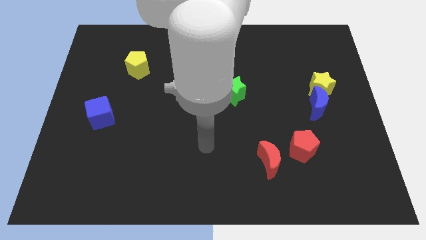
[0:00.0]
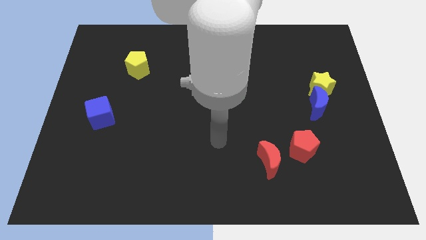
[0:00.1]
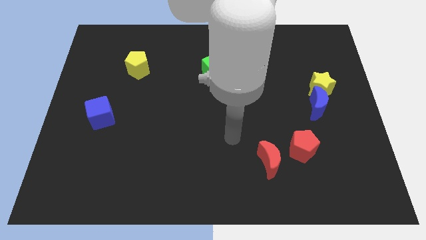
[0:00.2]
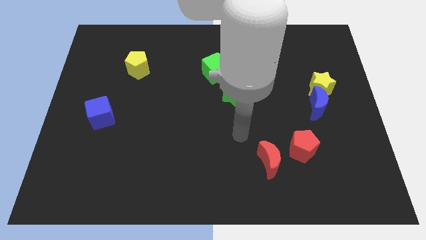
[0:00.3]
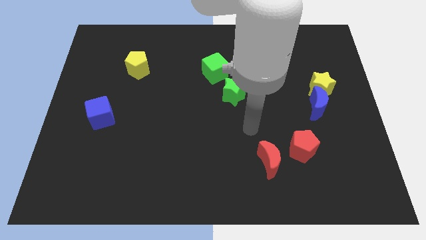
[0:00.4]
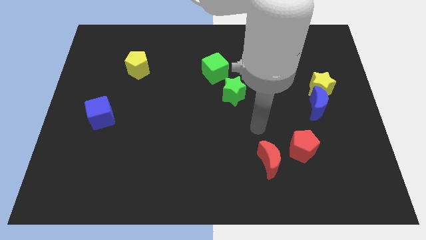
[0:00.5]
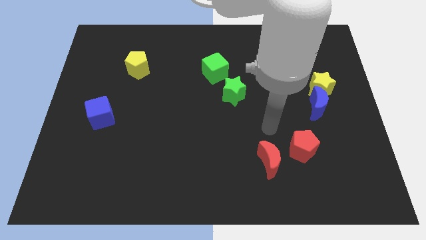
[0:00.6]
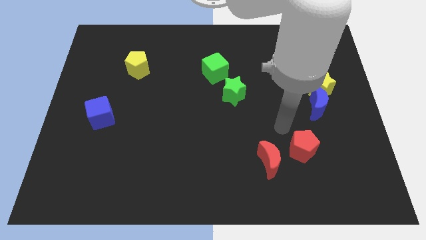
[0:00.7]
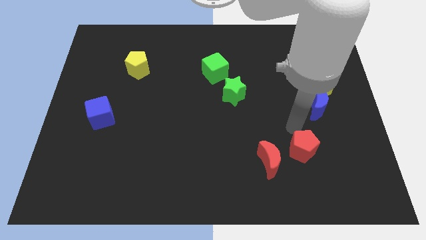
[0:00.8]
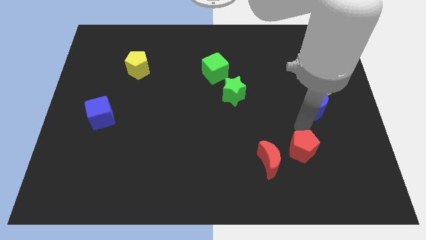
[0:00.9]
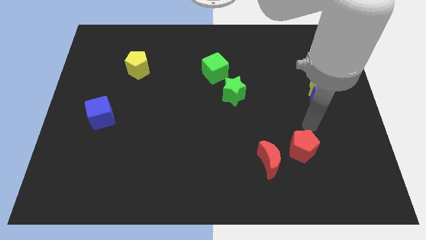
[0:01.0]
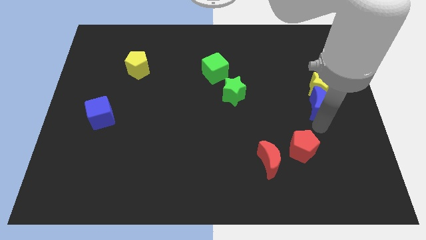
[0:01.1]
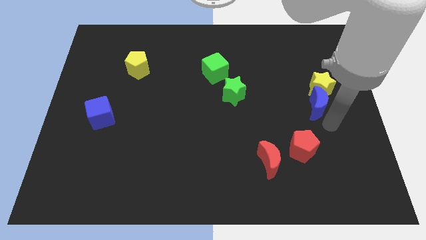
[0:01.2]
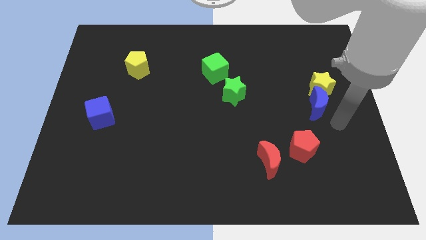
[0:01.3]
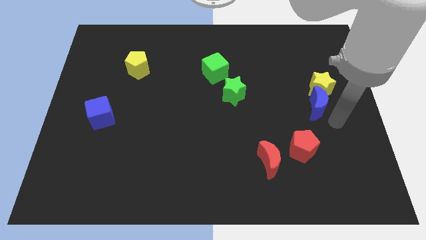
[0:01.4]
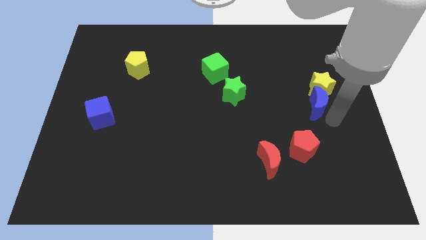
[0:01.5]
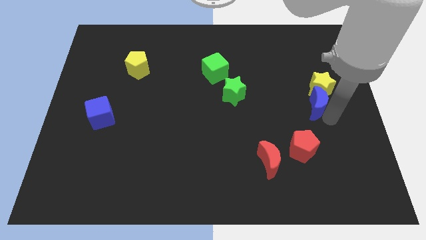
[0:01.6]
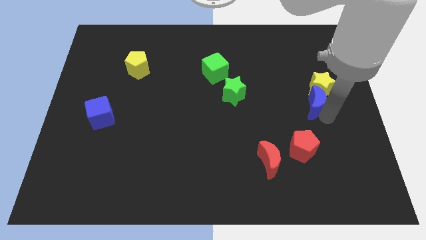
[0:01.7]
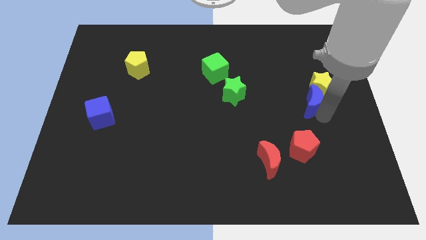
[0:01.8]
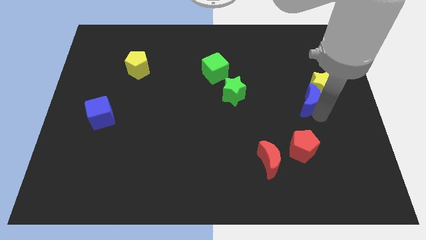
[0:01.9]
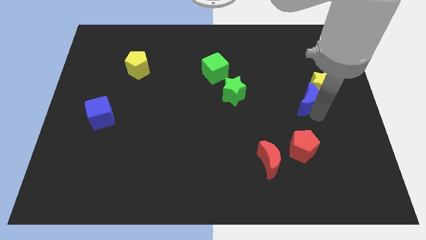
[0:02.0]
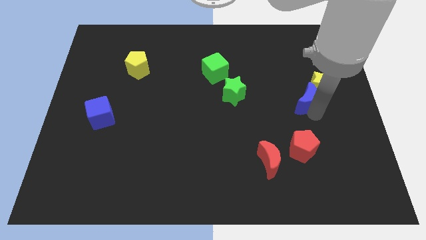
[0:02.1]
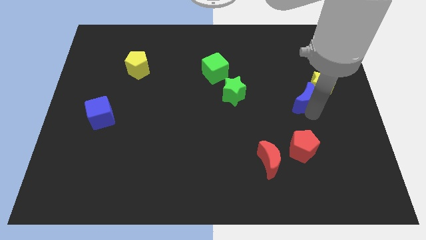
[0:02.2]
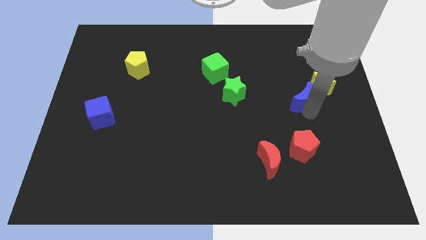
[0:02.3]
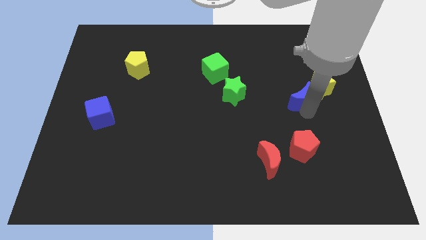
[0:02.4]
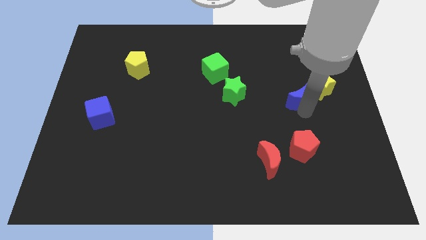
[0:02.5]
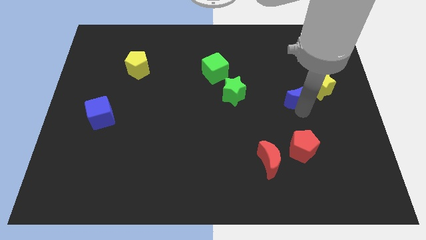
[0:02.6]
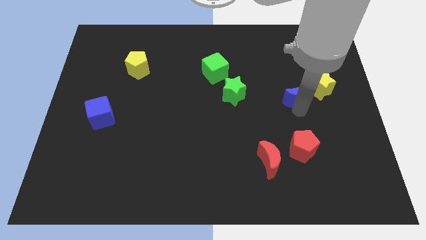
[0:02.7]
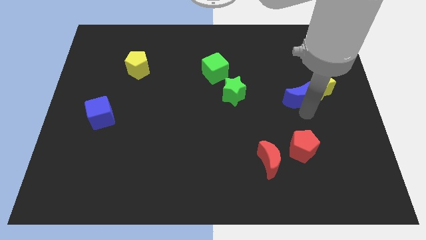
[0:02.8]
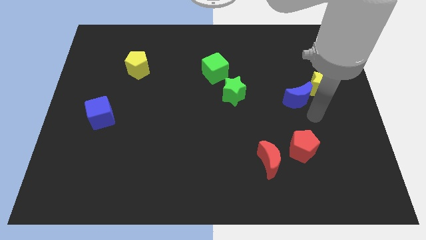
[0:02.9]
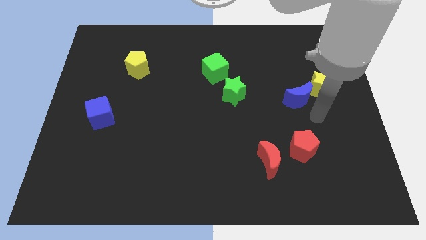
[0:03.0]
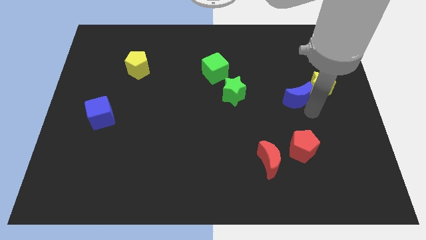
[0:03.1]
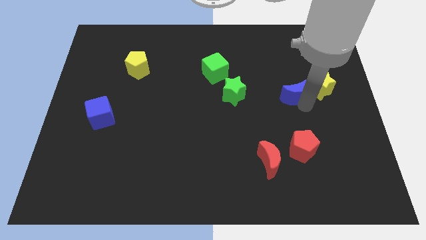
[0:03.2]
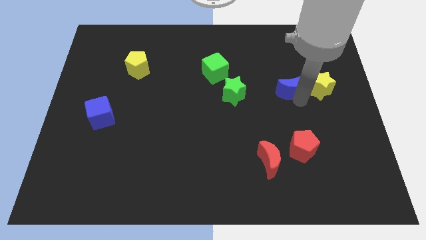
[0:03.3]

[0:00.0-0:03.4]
push the blue moon up and to the left a little bit

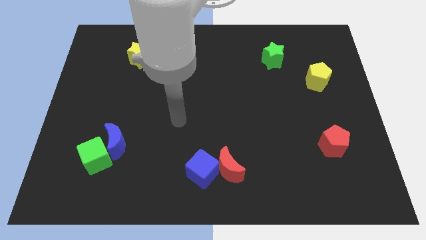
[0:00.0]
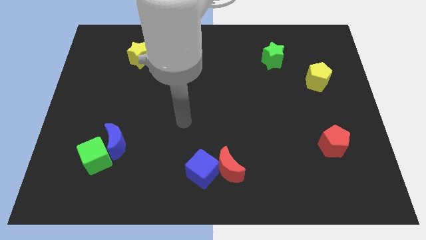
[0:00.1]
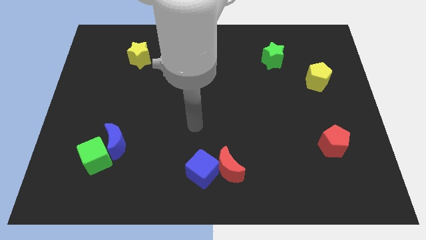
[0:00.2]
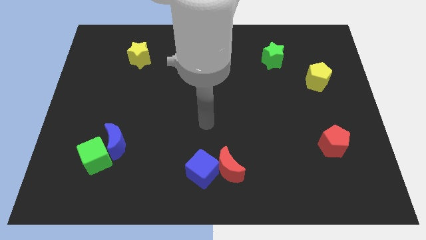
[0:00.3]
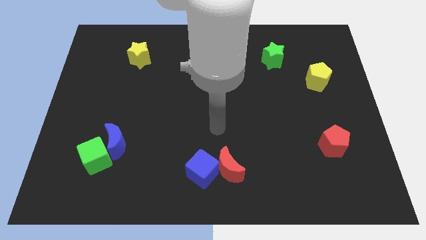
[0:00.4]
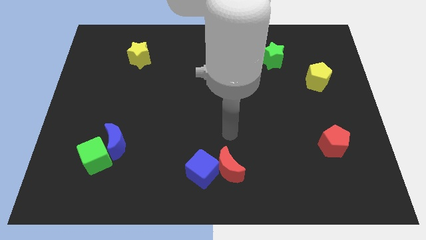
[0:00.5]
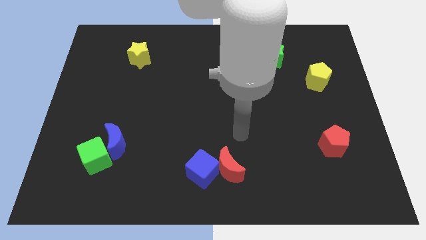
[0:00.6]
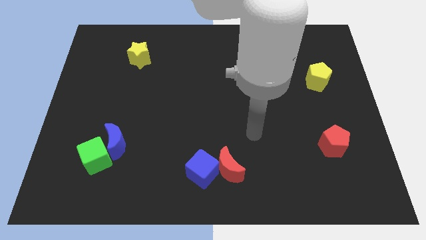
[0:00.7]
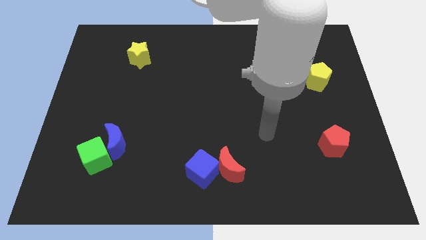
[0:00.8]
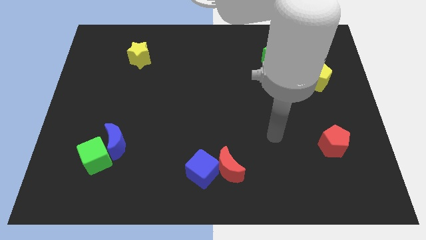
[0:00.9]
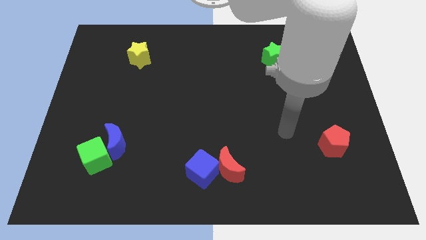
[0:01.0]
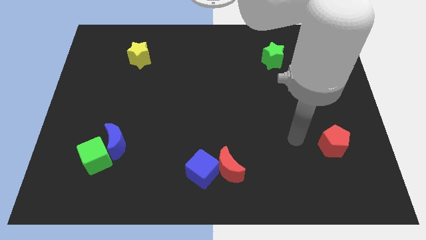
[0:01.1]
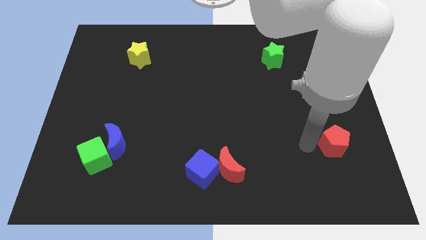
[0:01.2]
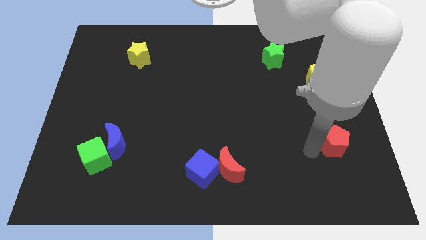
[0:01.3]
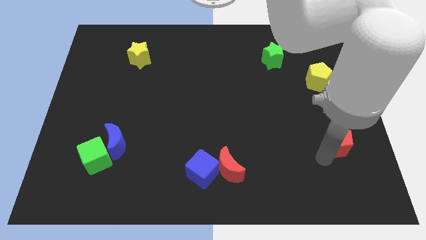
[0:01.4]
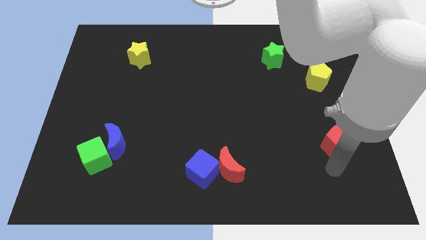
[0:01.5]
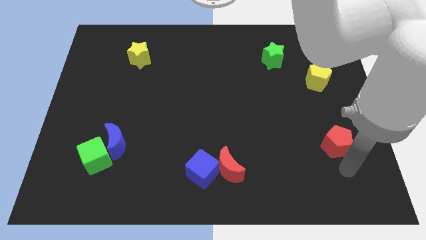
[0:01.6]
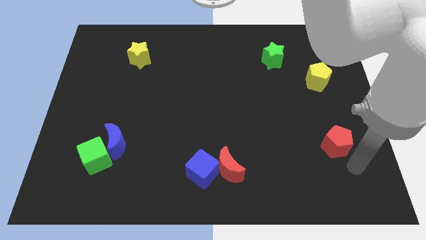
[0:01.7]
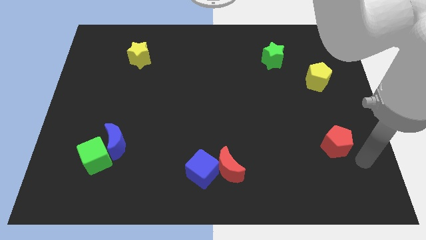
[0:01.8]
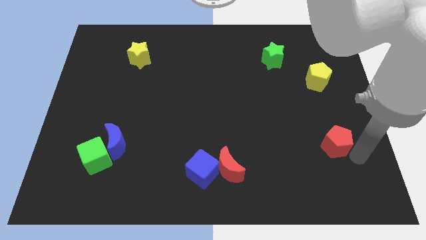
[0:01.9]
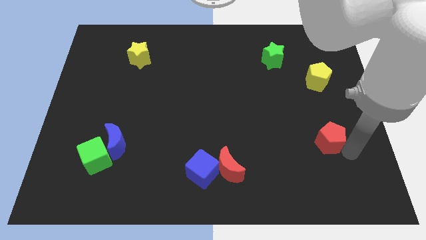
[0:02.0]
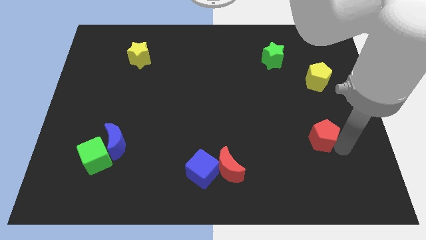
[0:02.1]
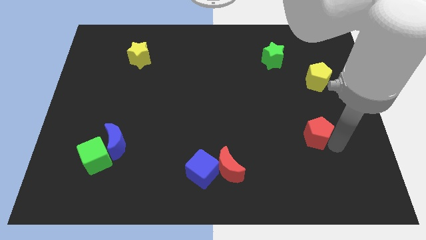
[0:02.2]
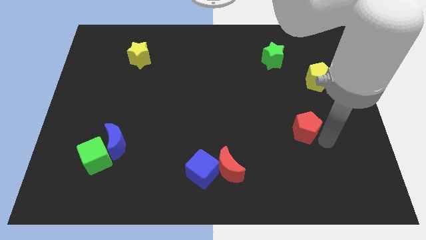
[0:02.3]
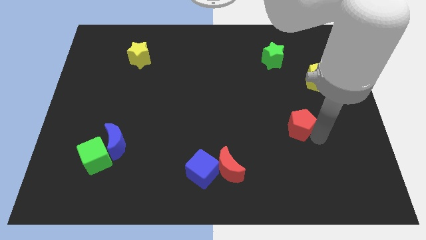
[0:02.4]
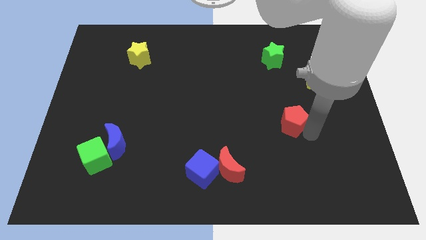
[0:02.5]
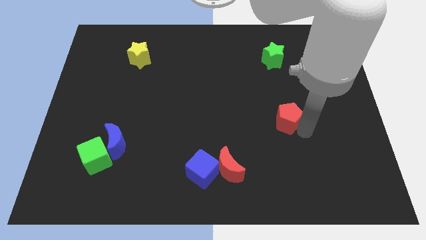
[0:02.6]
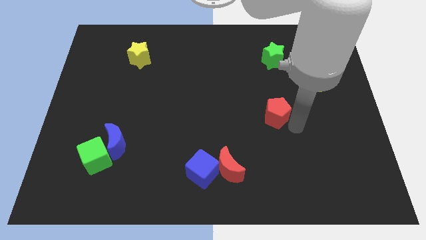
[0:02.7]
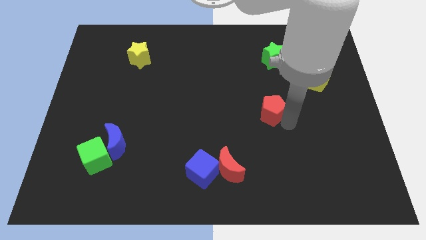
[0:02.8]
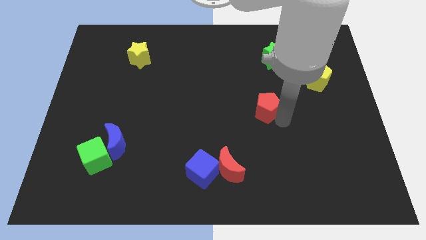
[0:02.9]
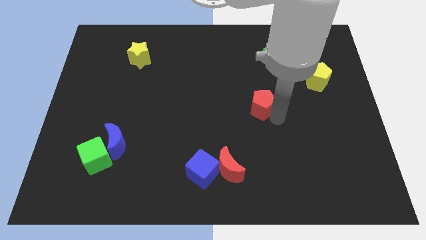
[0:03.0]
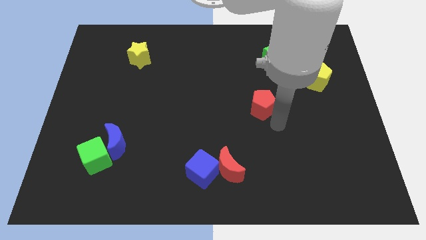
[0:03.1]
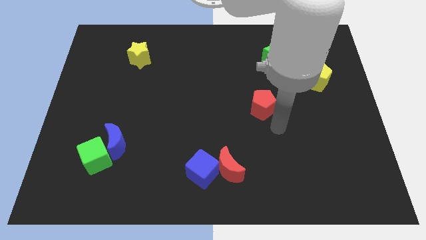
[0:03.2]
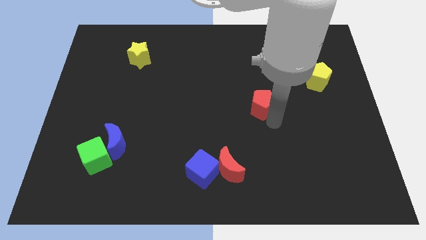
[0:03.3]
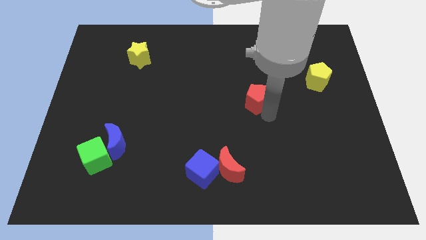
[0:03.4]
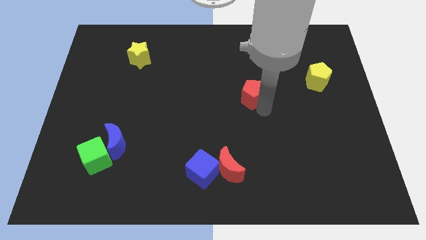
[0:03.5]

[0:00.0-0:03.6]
push the red pentagon up and to the left

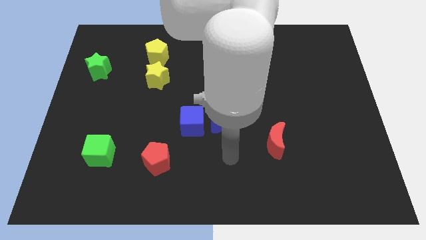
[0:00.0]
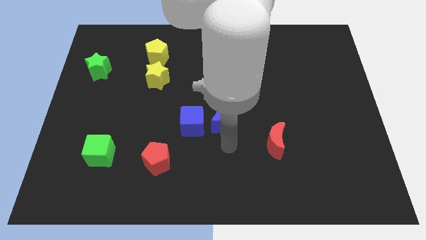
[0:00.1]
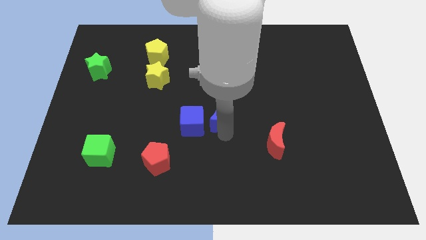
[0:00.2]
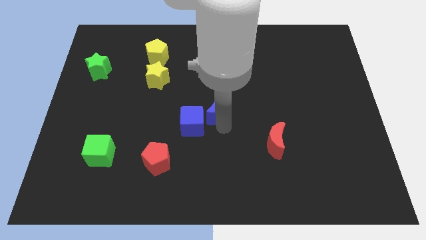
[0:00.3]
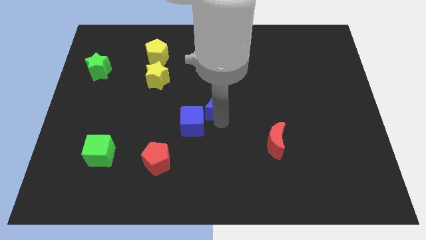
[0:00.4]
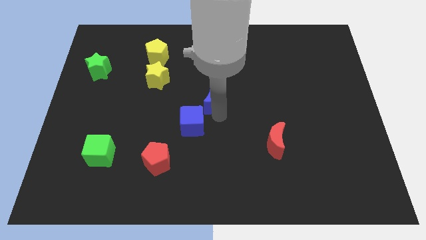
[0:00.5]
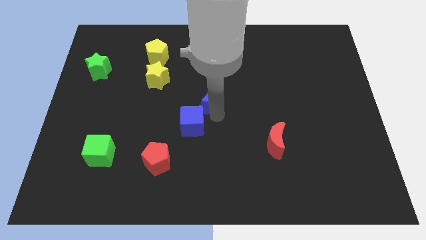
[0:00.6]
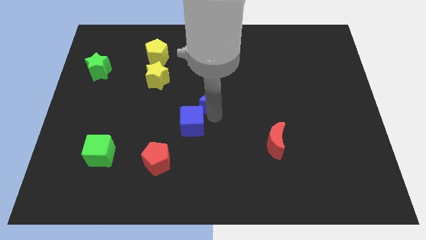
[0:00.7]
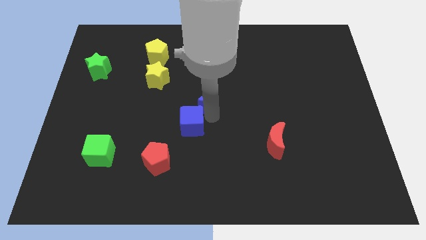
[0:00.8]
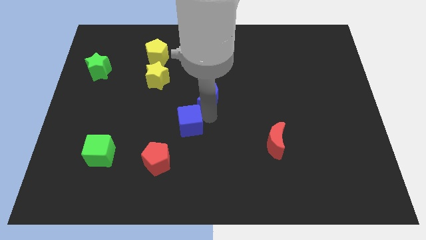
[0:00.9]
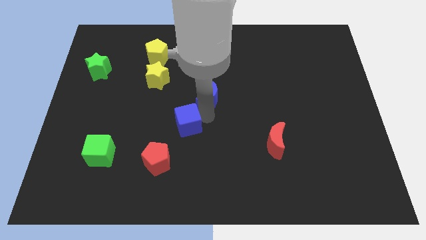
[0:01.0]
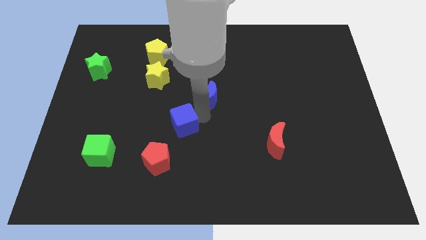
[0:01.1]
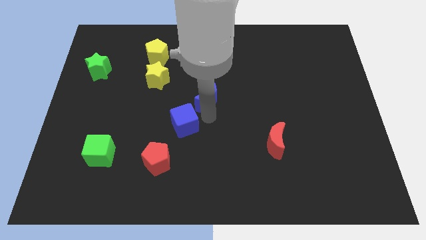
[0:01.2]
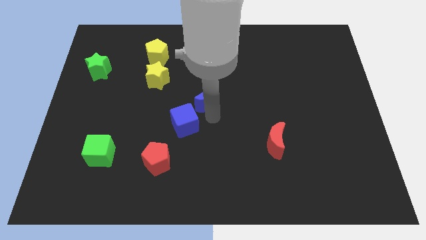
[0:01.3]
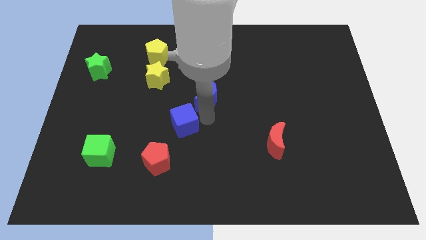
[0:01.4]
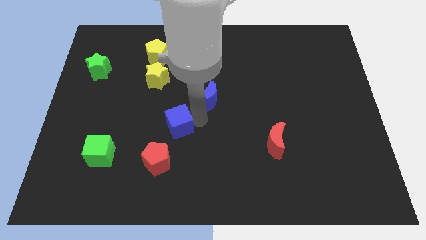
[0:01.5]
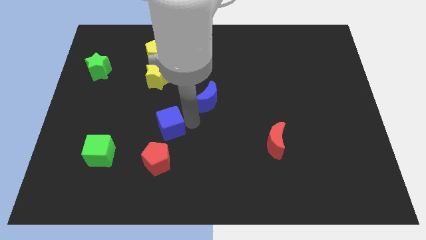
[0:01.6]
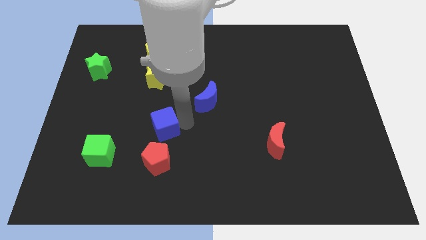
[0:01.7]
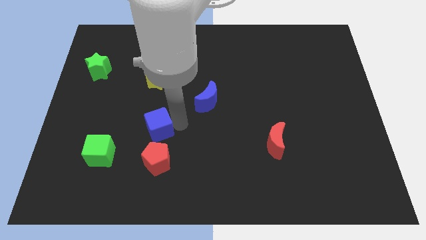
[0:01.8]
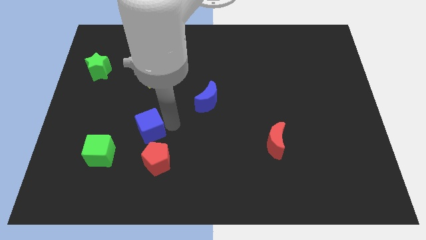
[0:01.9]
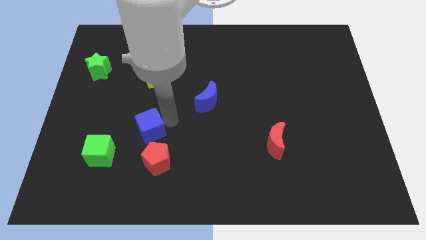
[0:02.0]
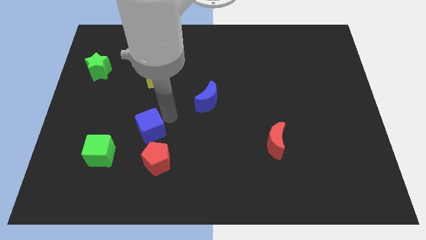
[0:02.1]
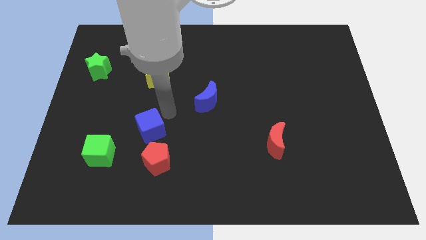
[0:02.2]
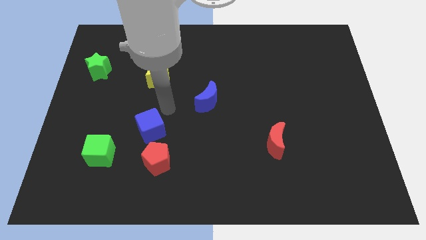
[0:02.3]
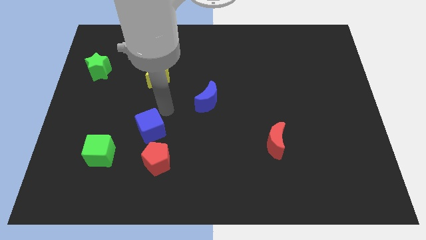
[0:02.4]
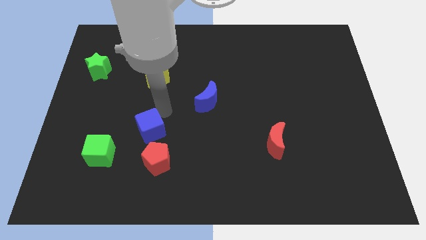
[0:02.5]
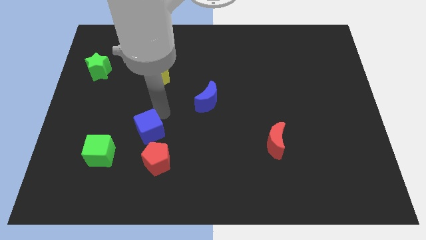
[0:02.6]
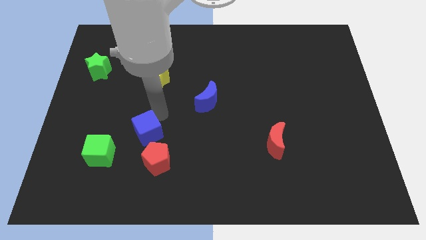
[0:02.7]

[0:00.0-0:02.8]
slightly push the blue cube downwards and then left
